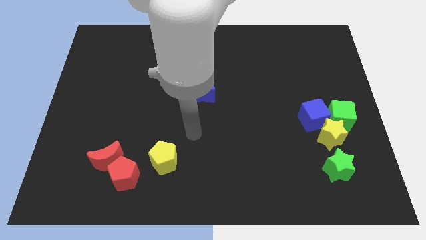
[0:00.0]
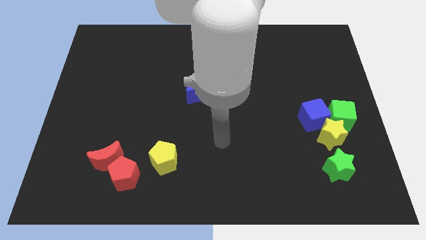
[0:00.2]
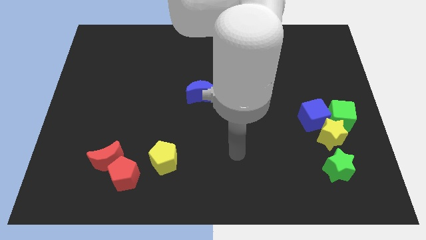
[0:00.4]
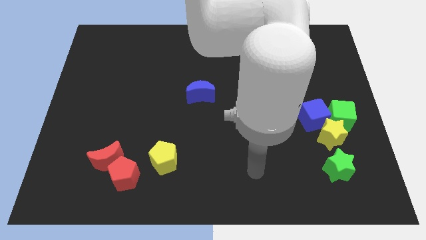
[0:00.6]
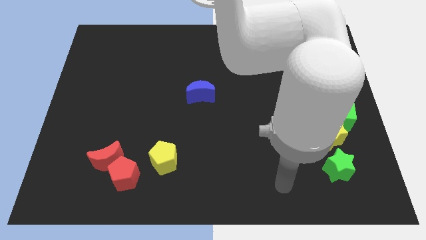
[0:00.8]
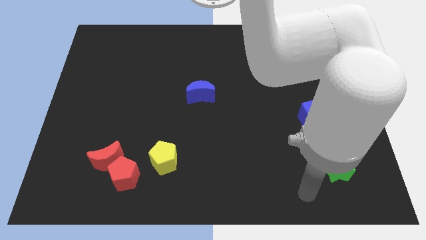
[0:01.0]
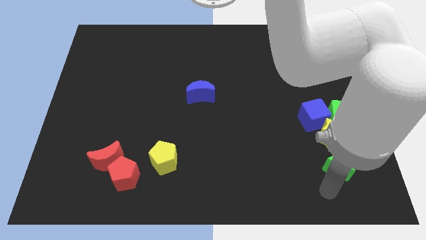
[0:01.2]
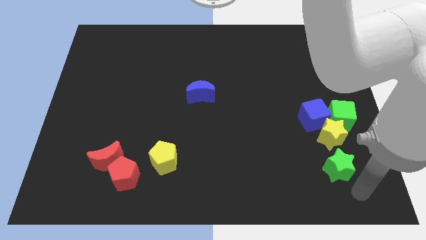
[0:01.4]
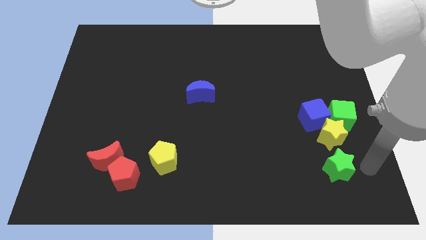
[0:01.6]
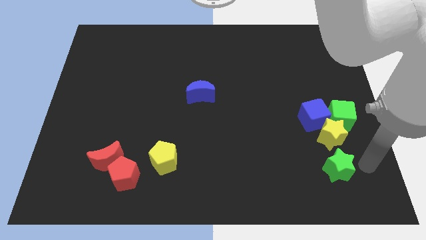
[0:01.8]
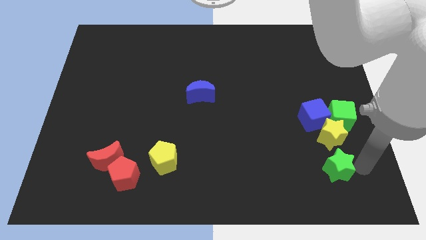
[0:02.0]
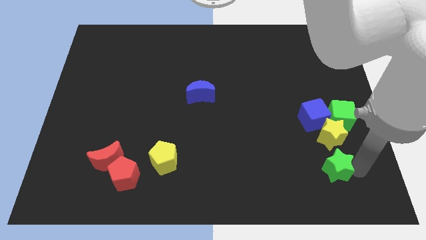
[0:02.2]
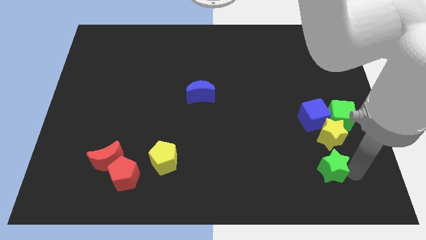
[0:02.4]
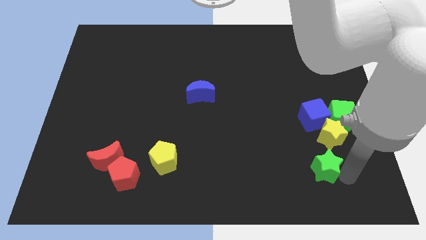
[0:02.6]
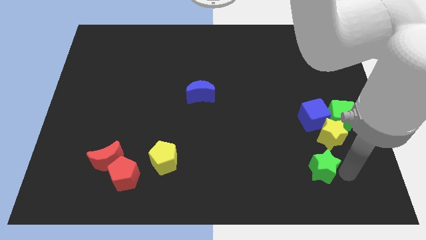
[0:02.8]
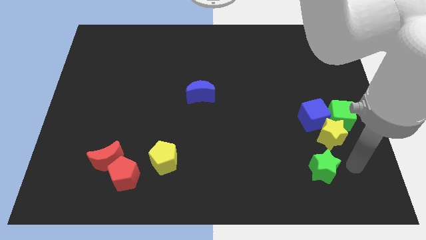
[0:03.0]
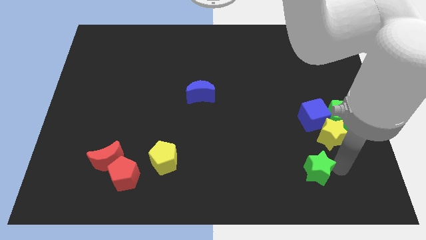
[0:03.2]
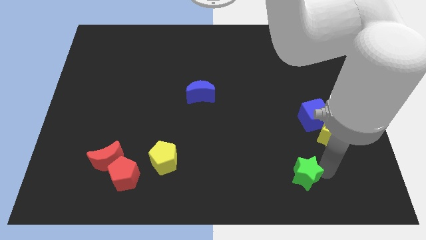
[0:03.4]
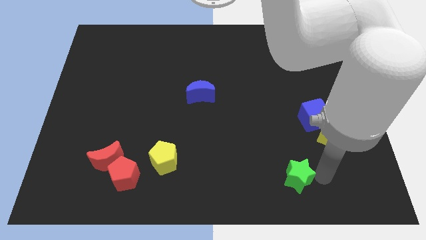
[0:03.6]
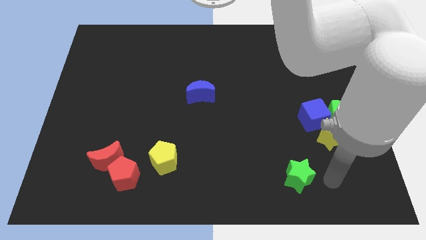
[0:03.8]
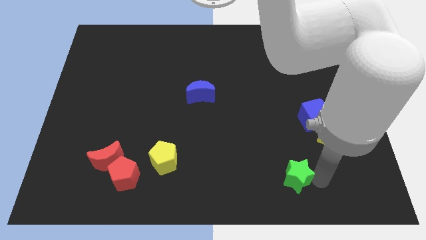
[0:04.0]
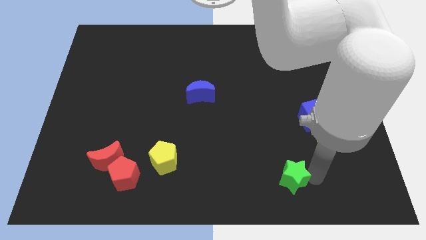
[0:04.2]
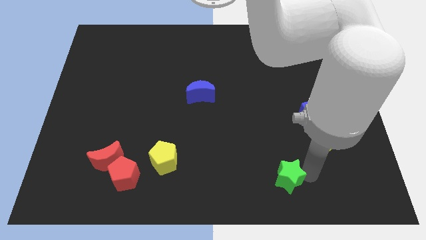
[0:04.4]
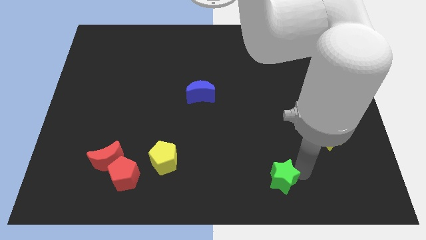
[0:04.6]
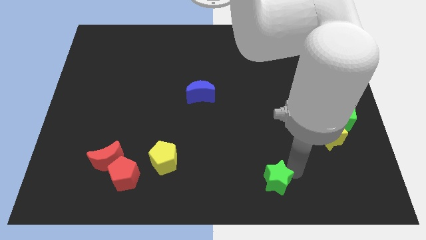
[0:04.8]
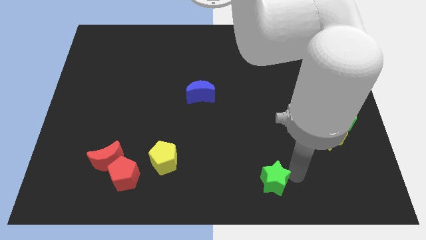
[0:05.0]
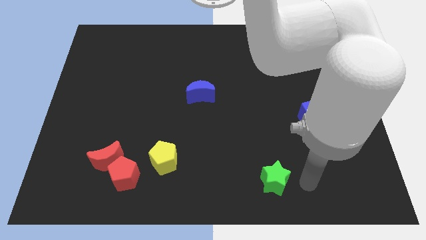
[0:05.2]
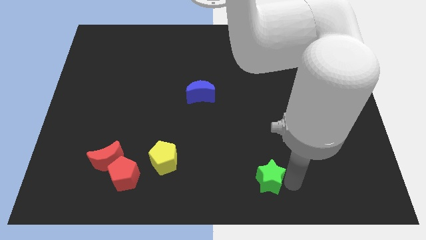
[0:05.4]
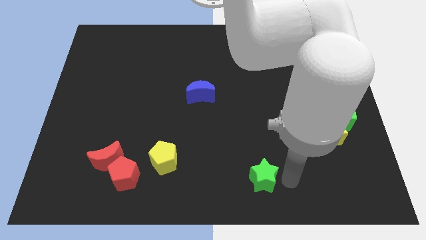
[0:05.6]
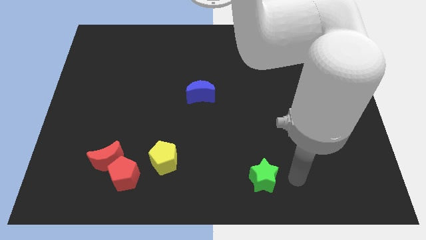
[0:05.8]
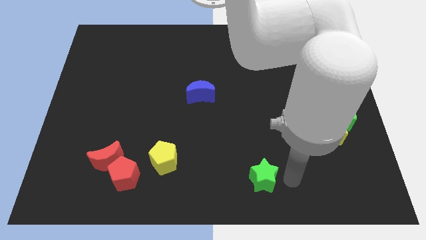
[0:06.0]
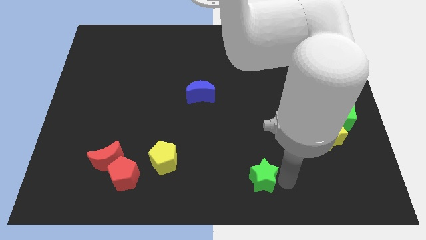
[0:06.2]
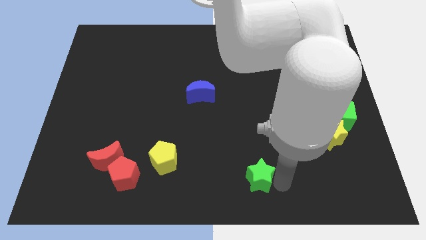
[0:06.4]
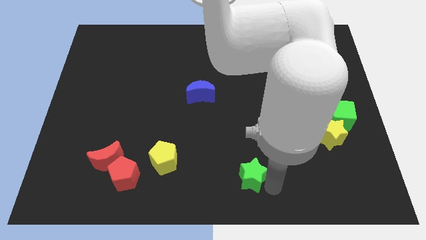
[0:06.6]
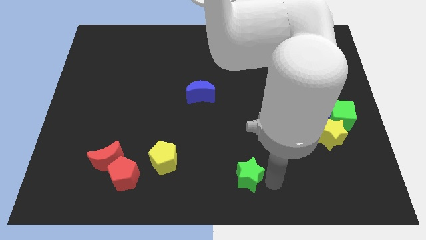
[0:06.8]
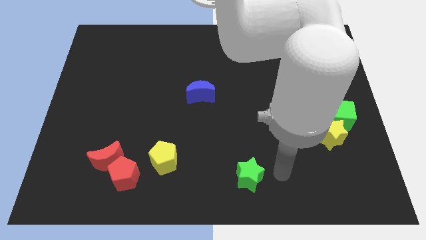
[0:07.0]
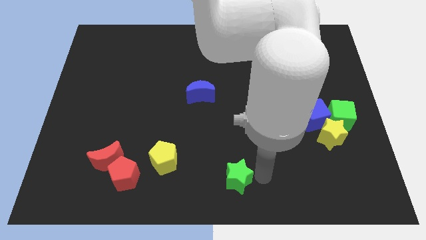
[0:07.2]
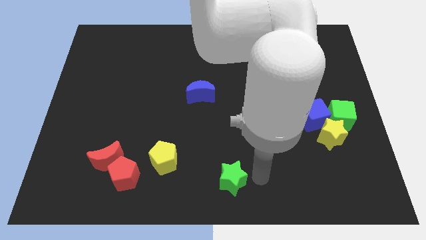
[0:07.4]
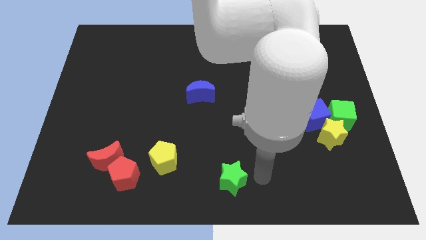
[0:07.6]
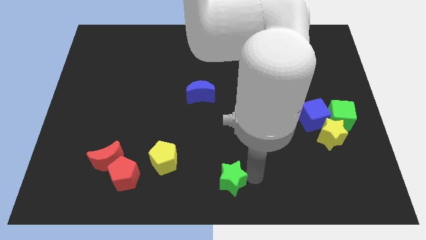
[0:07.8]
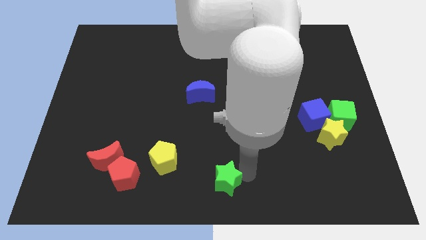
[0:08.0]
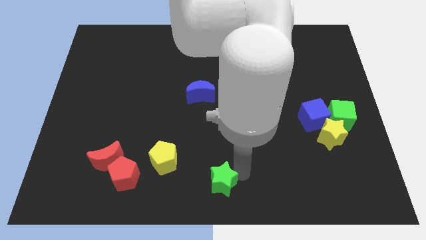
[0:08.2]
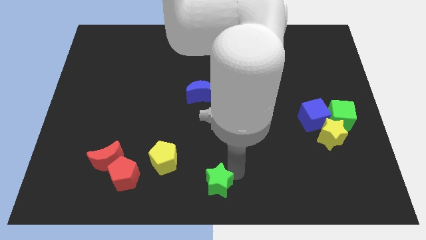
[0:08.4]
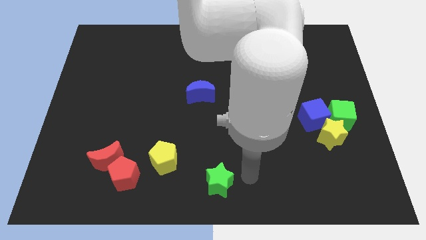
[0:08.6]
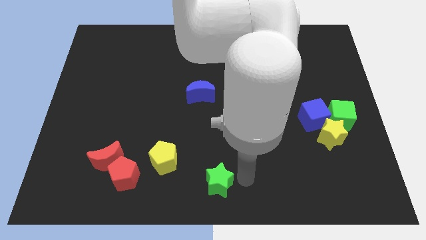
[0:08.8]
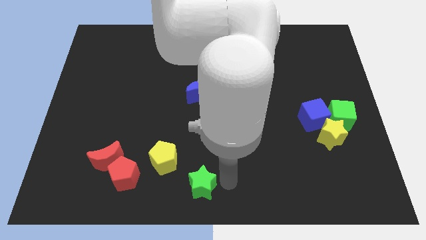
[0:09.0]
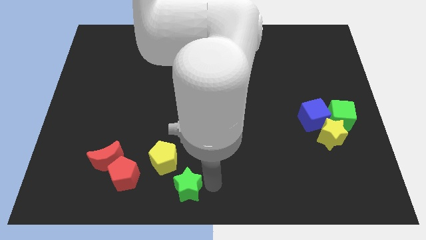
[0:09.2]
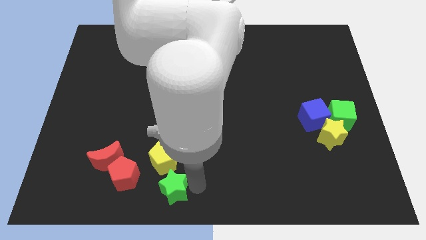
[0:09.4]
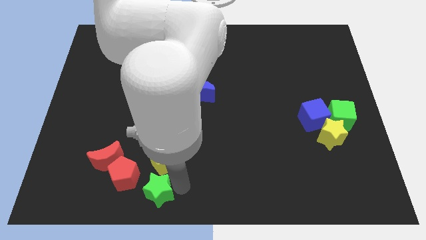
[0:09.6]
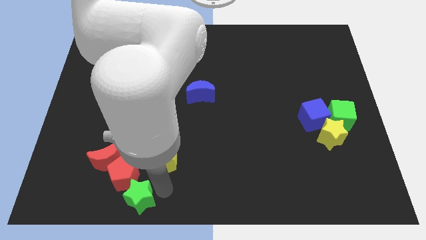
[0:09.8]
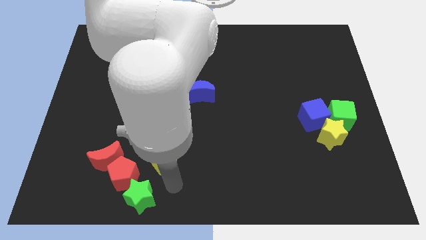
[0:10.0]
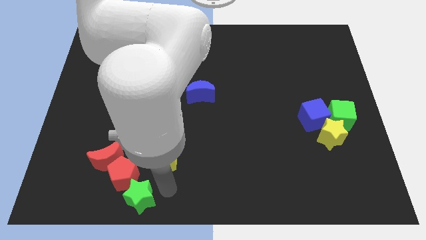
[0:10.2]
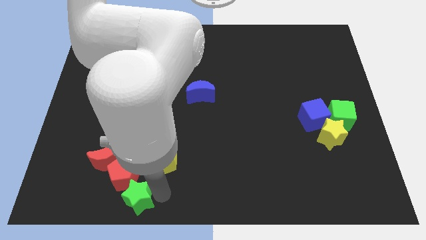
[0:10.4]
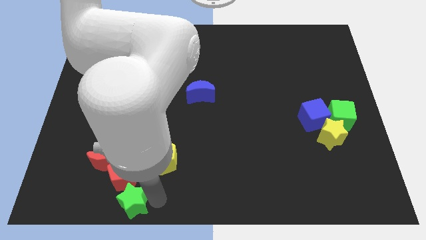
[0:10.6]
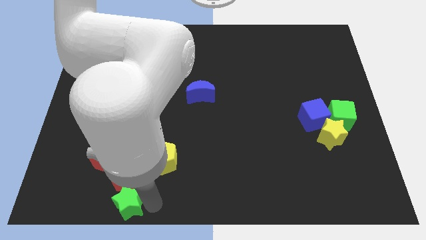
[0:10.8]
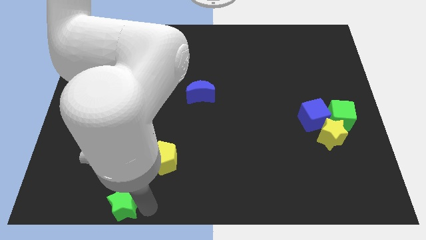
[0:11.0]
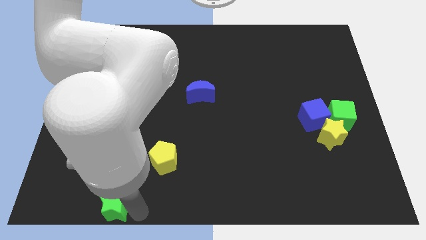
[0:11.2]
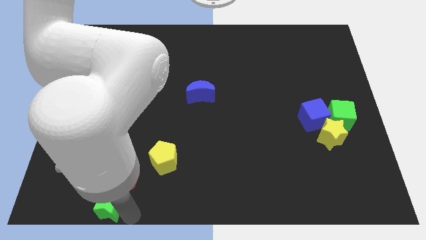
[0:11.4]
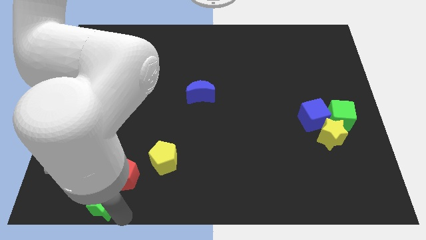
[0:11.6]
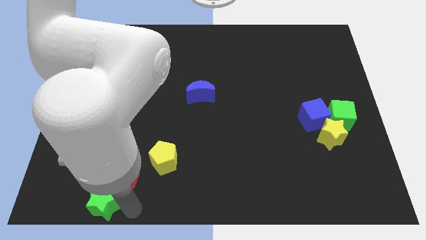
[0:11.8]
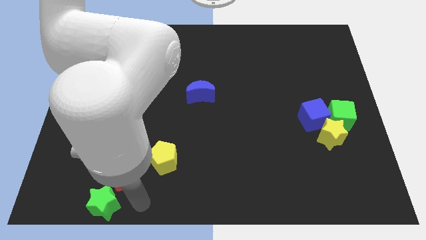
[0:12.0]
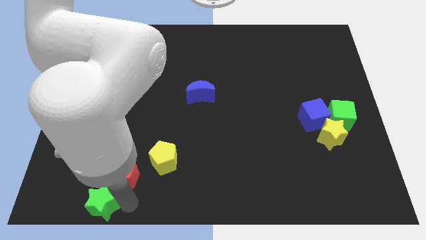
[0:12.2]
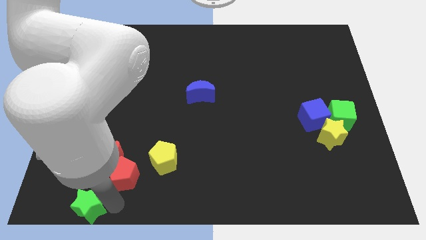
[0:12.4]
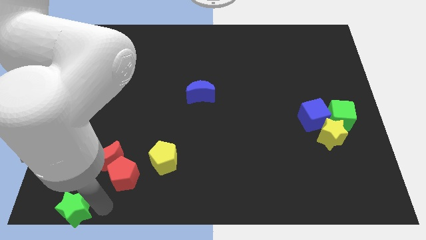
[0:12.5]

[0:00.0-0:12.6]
slide the green star to the lower left corner
